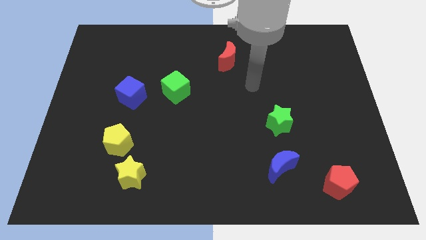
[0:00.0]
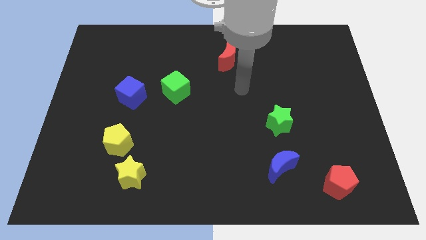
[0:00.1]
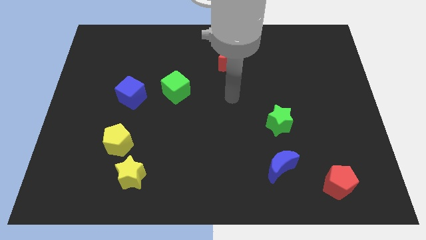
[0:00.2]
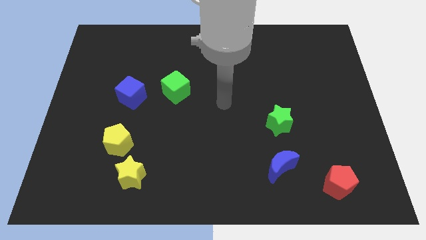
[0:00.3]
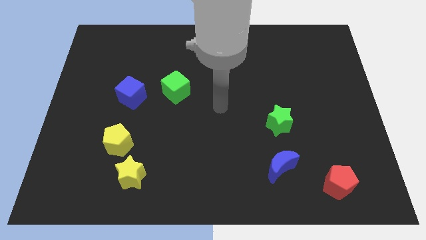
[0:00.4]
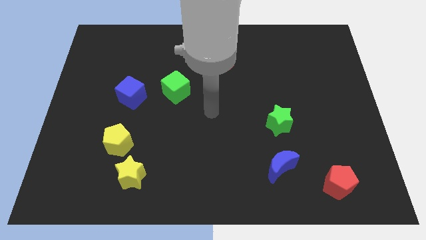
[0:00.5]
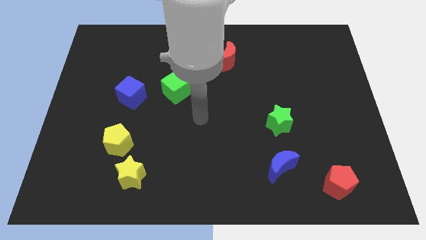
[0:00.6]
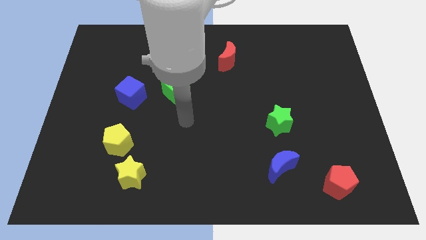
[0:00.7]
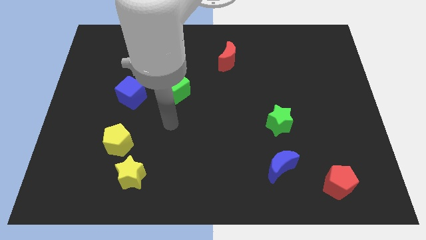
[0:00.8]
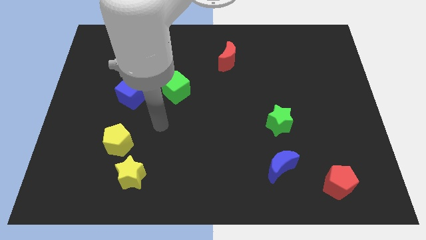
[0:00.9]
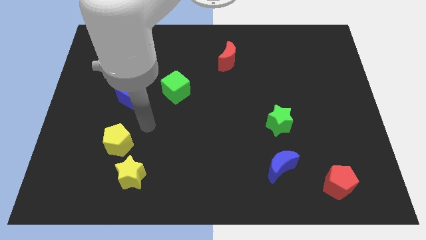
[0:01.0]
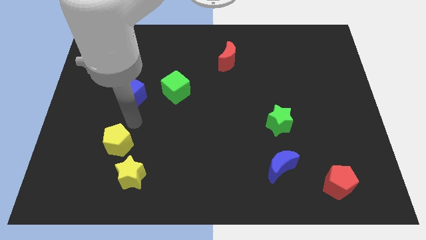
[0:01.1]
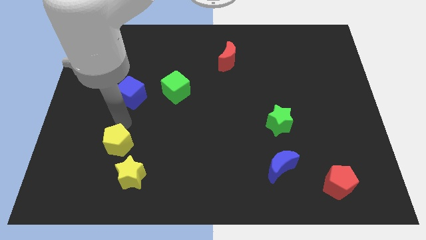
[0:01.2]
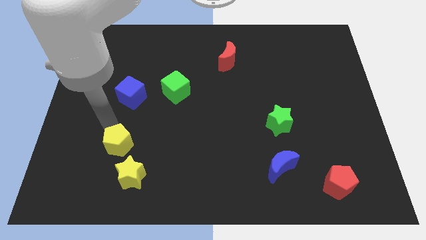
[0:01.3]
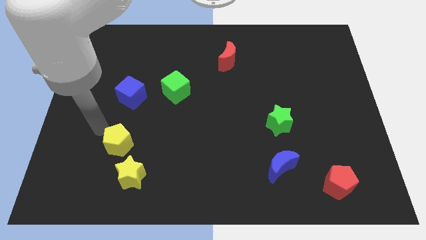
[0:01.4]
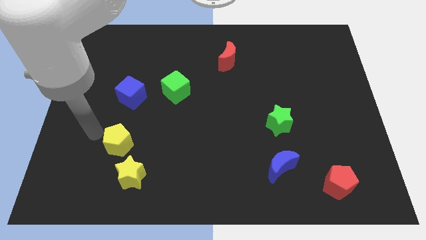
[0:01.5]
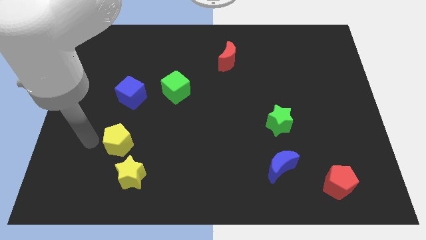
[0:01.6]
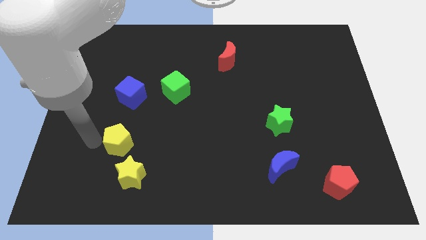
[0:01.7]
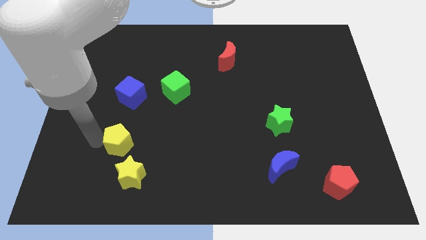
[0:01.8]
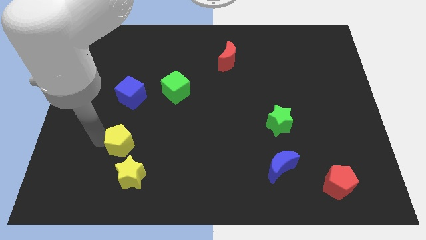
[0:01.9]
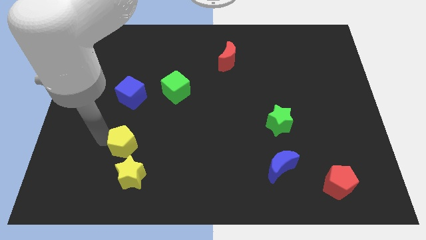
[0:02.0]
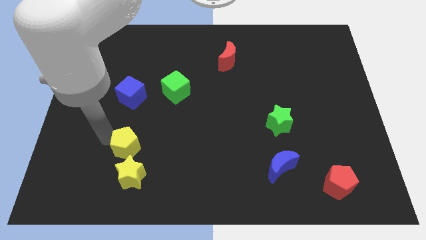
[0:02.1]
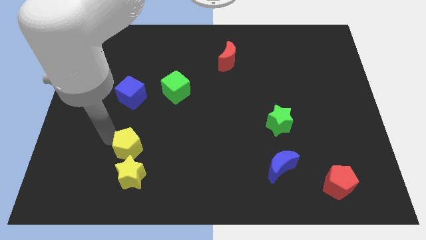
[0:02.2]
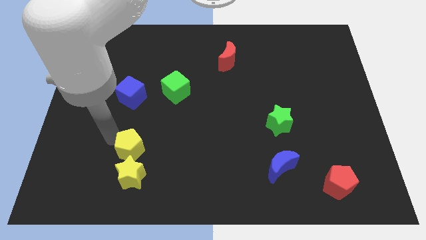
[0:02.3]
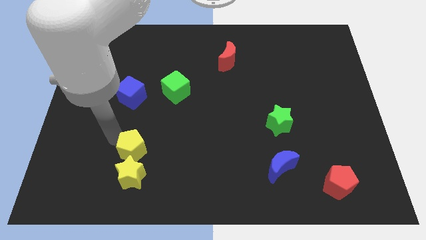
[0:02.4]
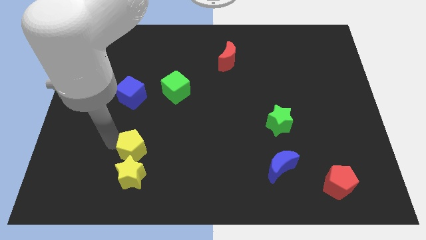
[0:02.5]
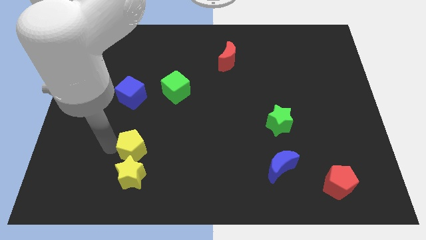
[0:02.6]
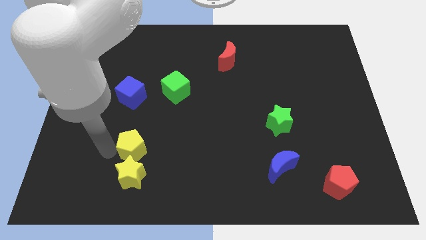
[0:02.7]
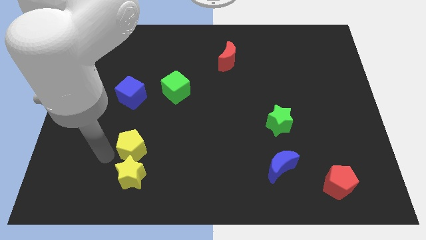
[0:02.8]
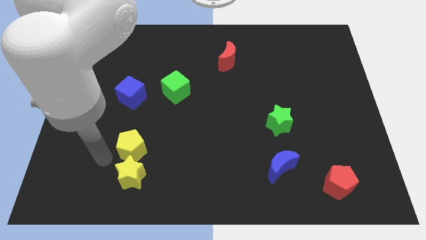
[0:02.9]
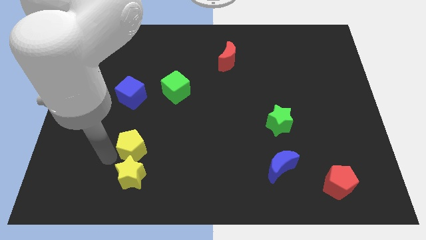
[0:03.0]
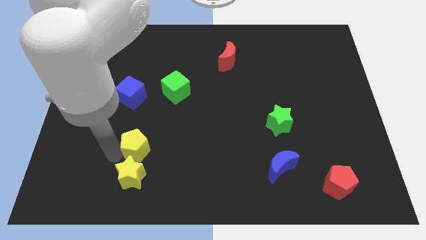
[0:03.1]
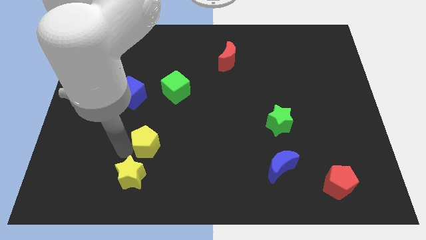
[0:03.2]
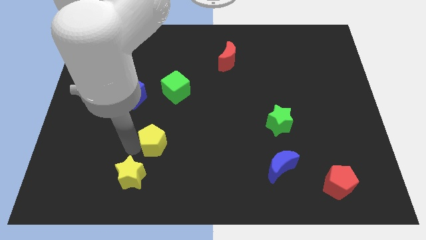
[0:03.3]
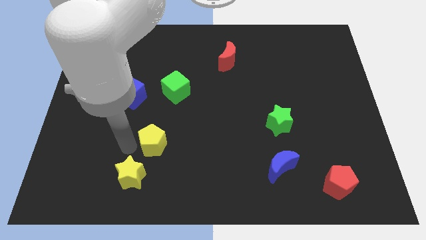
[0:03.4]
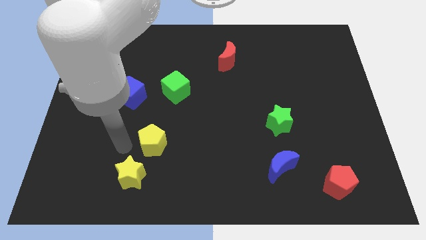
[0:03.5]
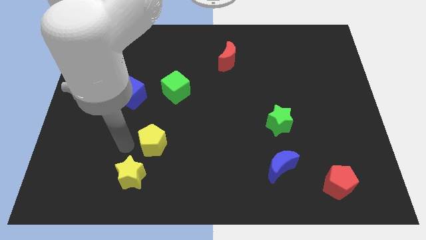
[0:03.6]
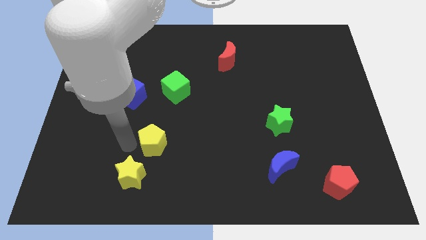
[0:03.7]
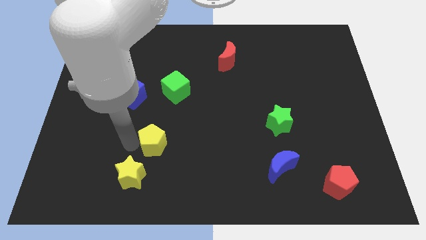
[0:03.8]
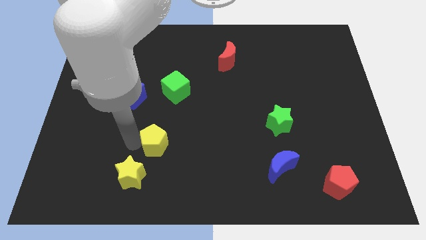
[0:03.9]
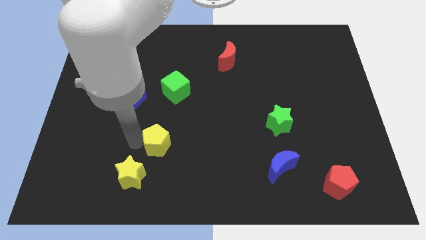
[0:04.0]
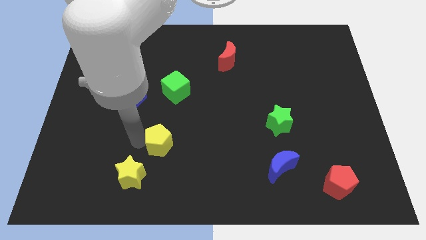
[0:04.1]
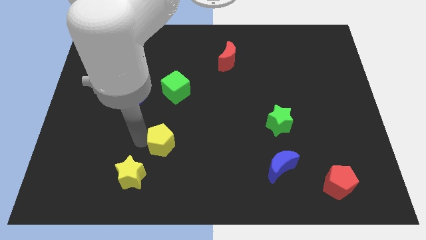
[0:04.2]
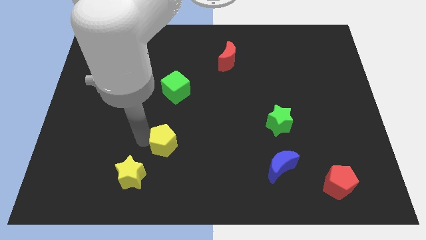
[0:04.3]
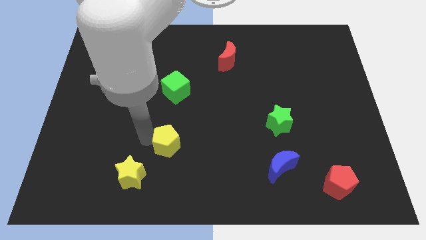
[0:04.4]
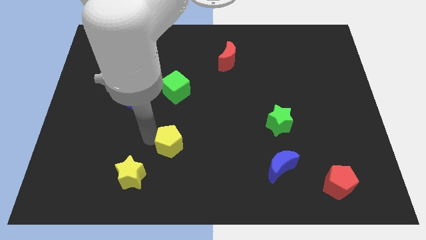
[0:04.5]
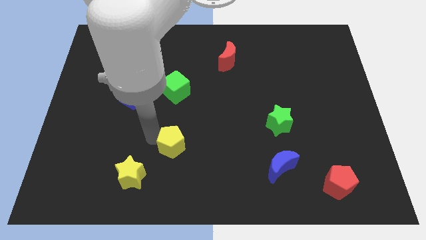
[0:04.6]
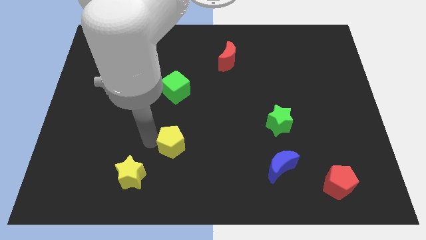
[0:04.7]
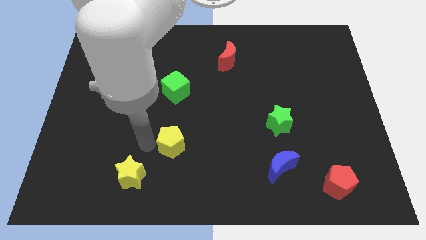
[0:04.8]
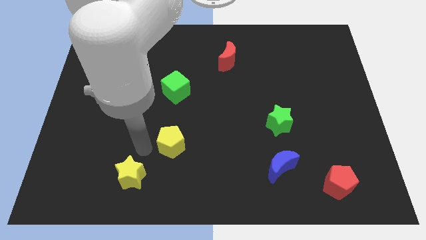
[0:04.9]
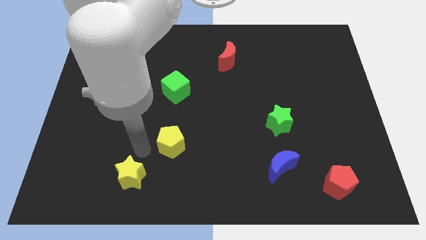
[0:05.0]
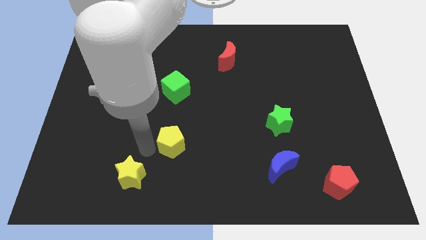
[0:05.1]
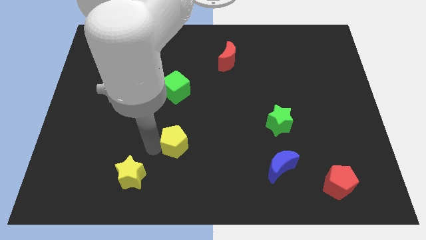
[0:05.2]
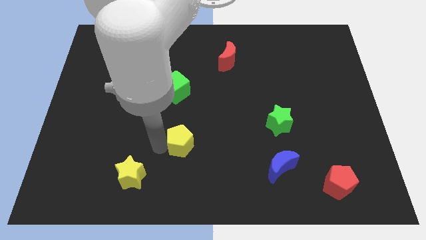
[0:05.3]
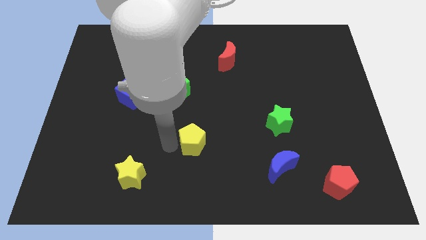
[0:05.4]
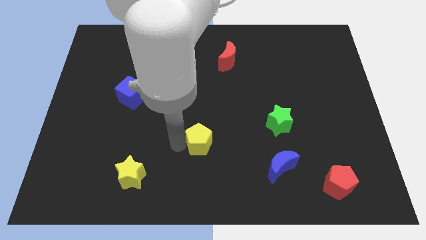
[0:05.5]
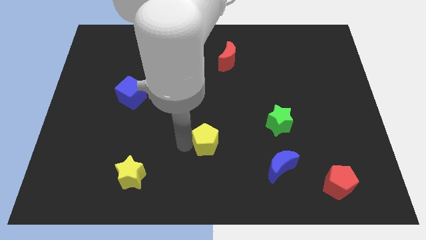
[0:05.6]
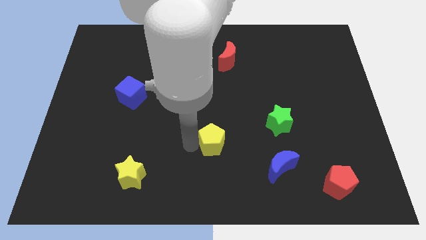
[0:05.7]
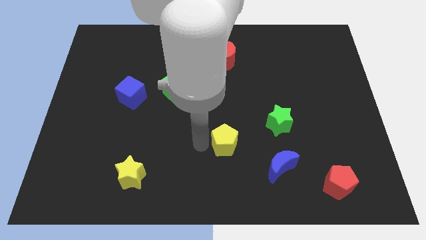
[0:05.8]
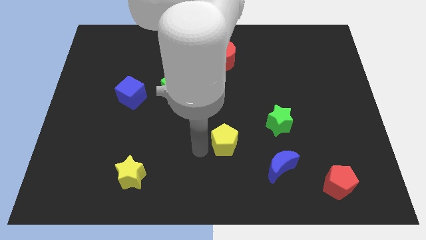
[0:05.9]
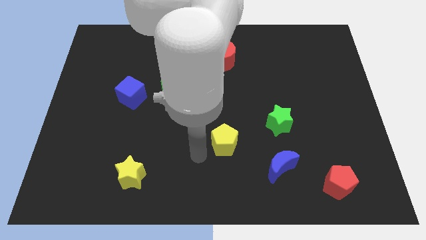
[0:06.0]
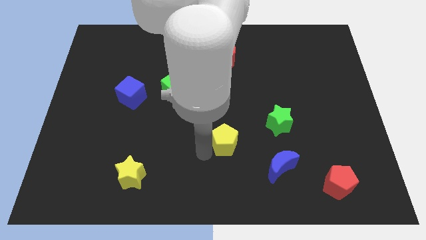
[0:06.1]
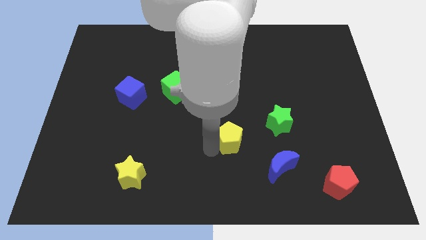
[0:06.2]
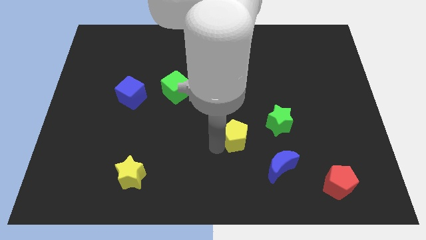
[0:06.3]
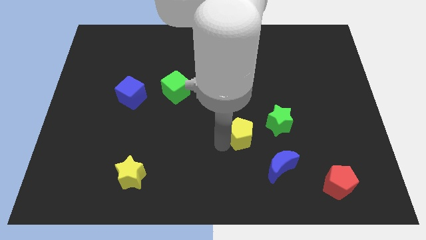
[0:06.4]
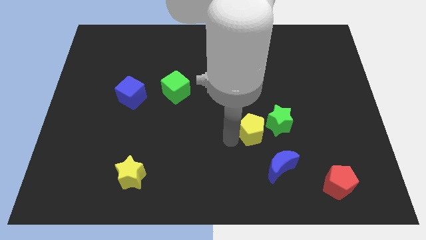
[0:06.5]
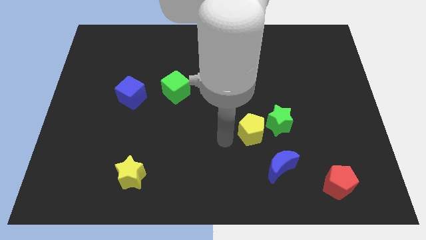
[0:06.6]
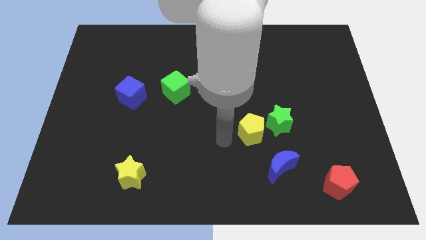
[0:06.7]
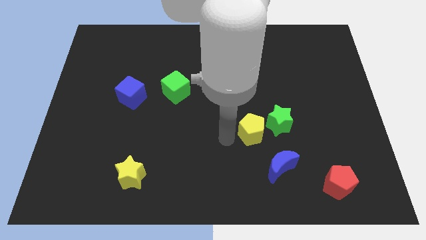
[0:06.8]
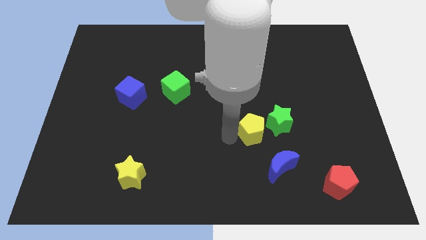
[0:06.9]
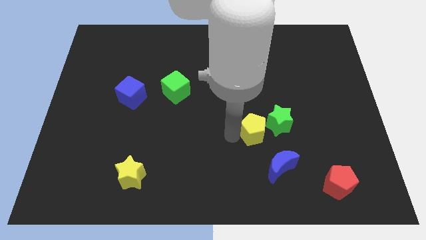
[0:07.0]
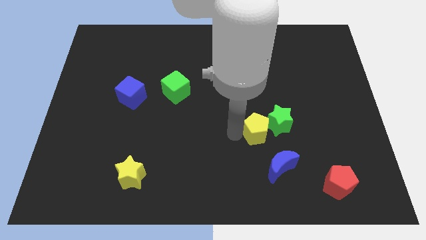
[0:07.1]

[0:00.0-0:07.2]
push the yellow pentagon close to the green star

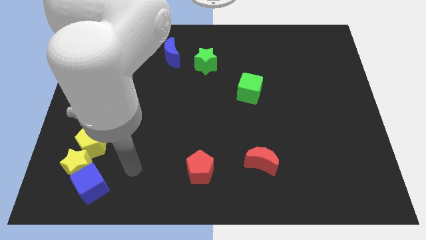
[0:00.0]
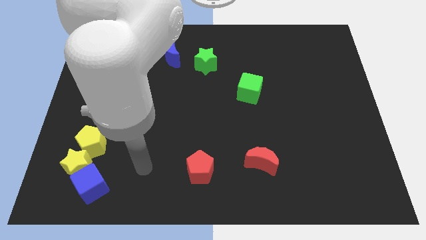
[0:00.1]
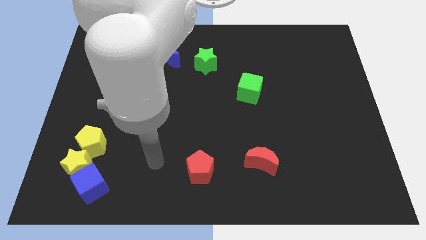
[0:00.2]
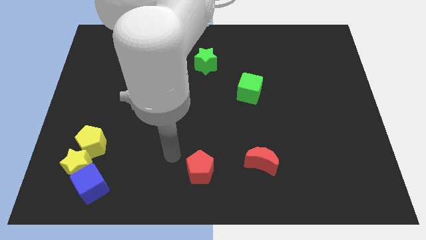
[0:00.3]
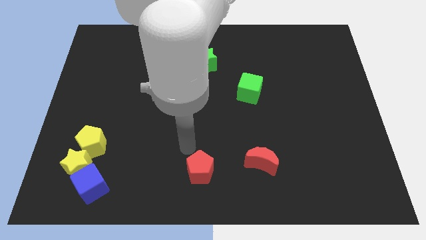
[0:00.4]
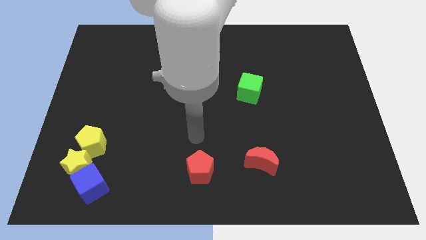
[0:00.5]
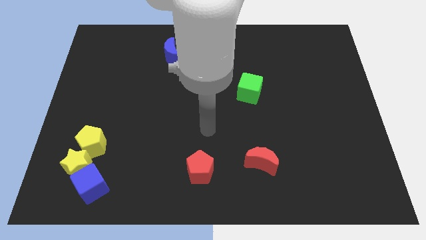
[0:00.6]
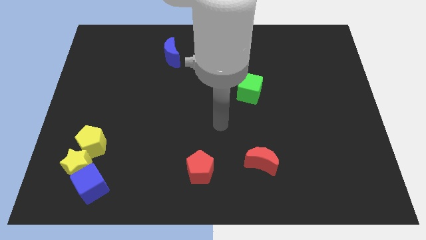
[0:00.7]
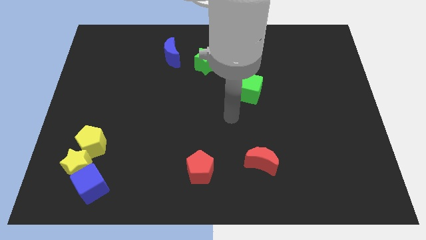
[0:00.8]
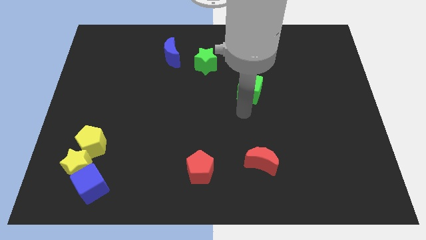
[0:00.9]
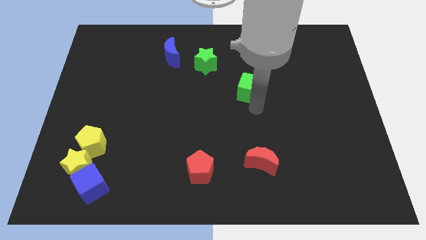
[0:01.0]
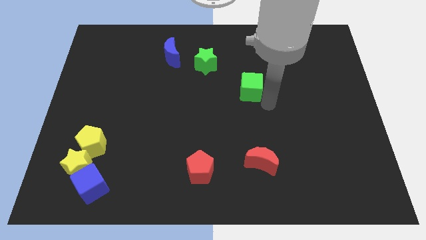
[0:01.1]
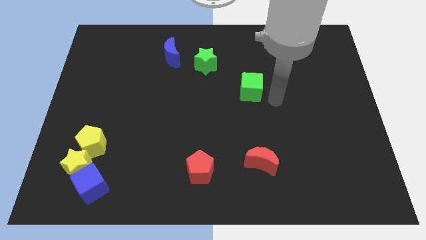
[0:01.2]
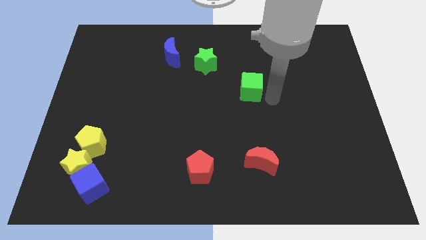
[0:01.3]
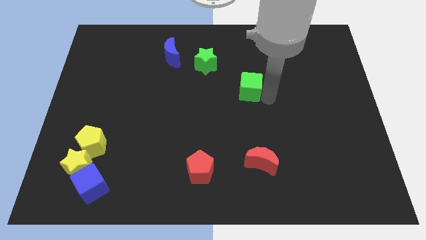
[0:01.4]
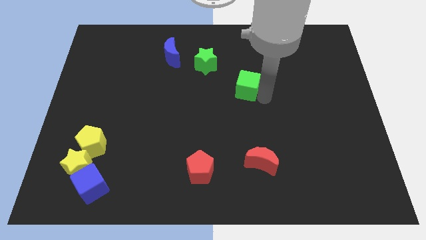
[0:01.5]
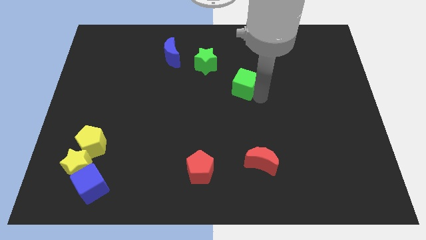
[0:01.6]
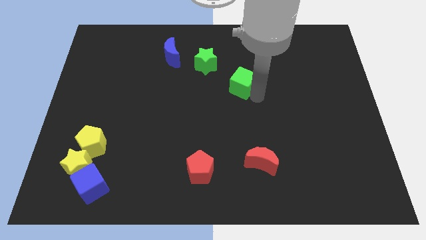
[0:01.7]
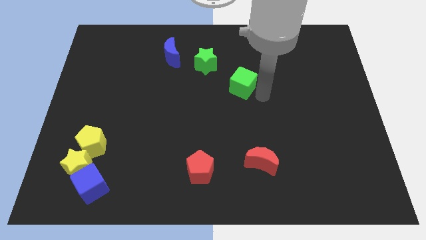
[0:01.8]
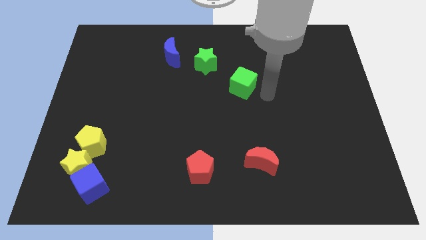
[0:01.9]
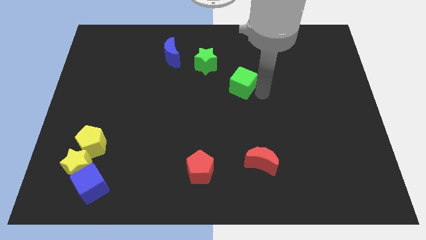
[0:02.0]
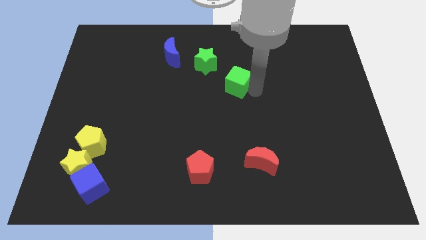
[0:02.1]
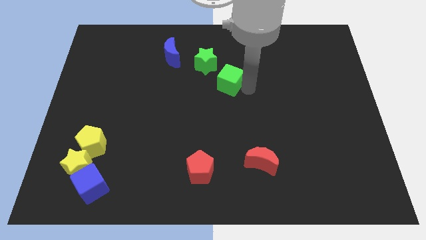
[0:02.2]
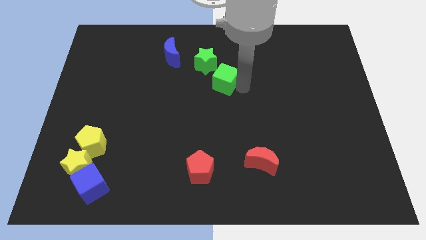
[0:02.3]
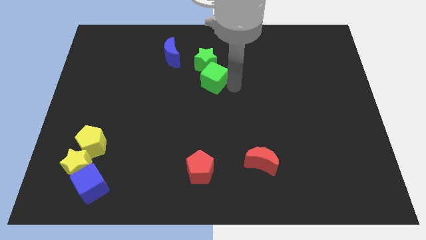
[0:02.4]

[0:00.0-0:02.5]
slide the green cube next to the green star
